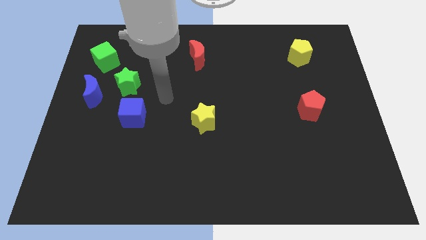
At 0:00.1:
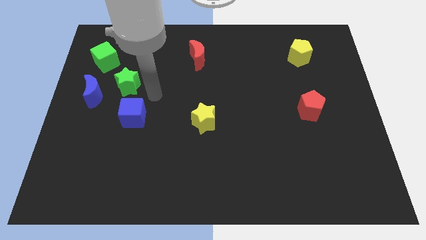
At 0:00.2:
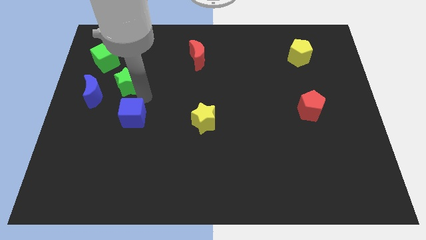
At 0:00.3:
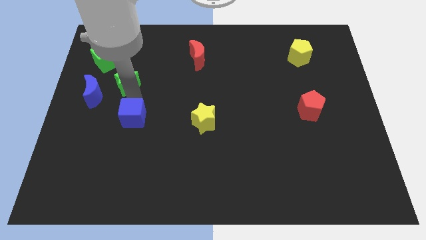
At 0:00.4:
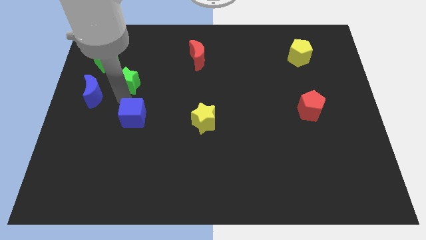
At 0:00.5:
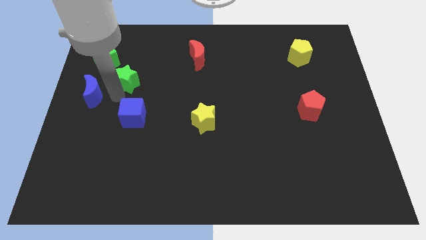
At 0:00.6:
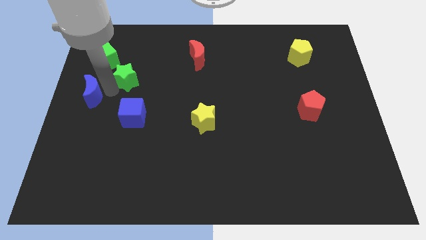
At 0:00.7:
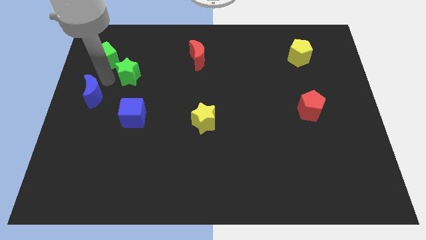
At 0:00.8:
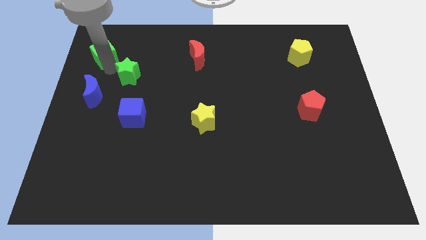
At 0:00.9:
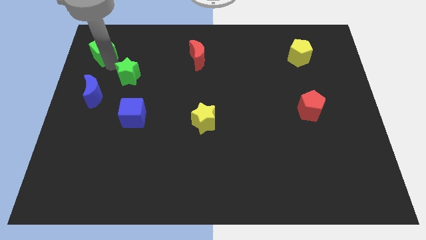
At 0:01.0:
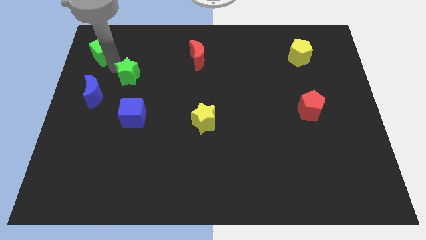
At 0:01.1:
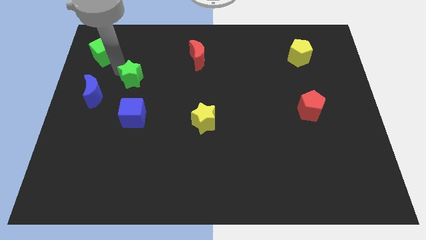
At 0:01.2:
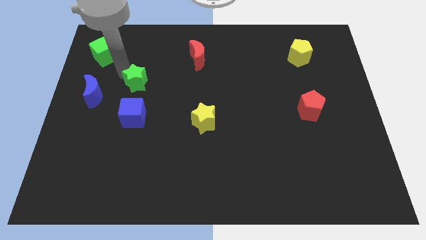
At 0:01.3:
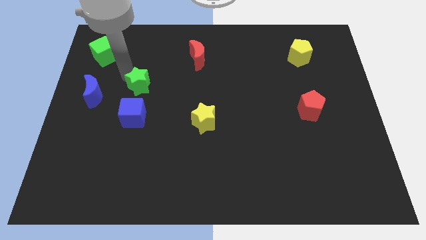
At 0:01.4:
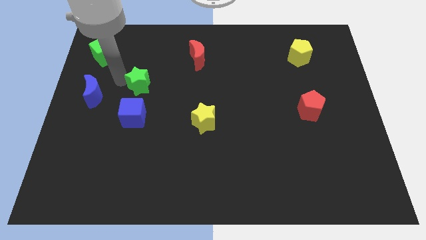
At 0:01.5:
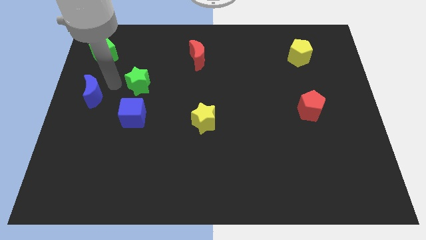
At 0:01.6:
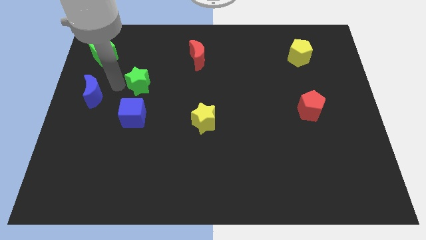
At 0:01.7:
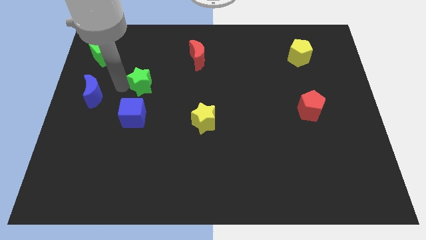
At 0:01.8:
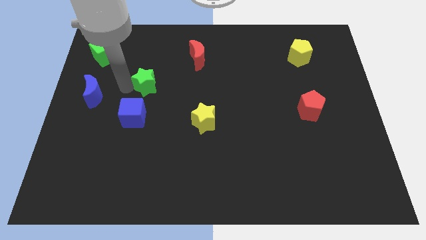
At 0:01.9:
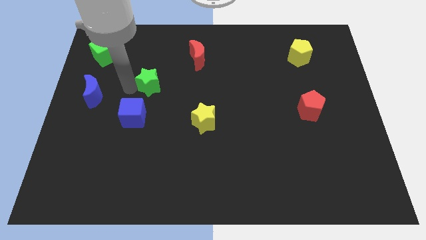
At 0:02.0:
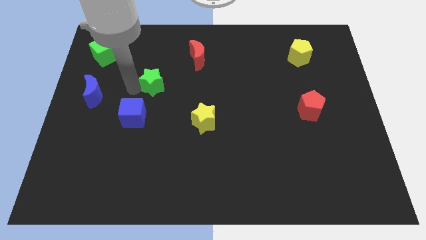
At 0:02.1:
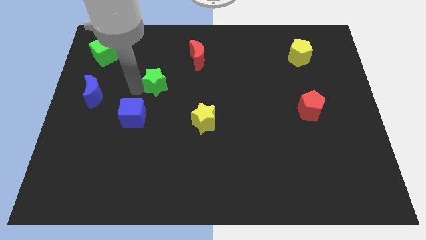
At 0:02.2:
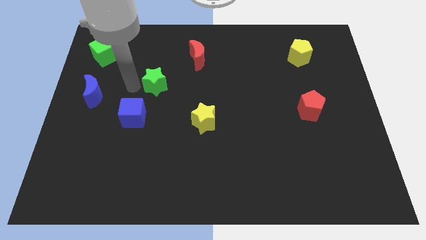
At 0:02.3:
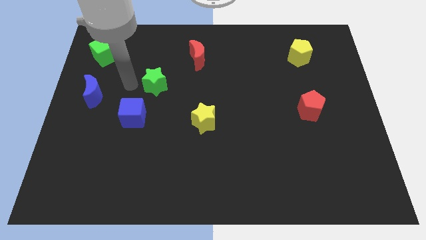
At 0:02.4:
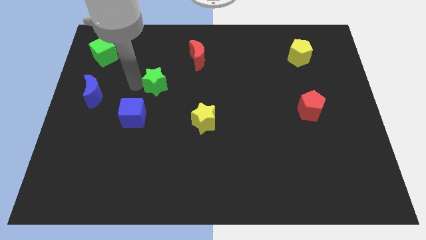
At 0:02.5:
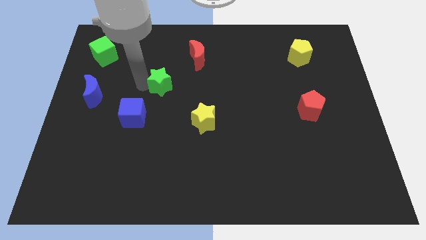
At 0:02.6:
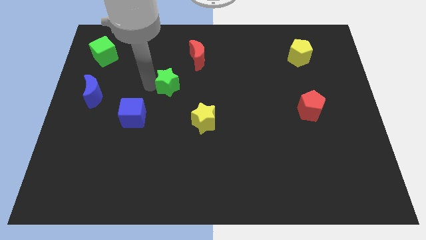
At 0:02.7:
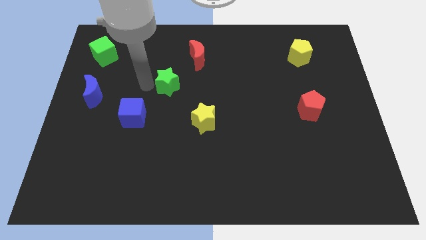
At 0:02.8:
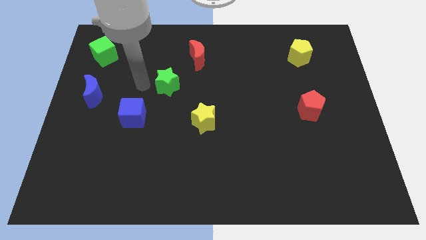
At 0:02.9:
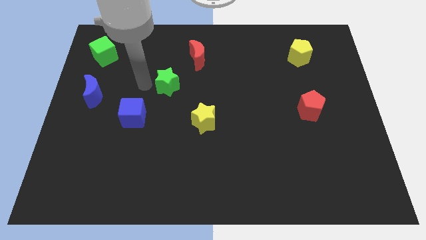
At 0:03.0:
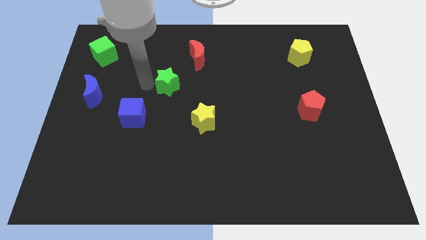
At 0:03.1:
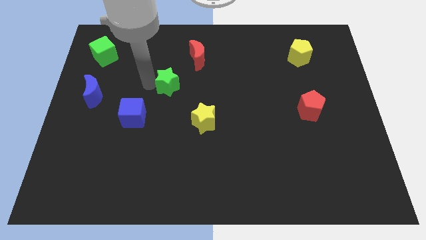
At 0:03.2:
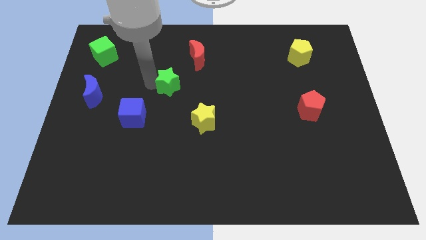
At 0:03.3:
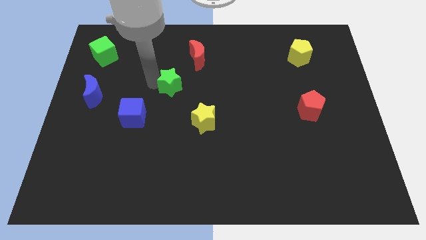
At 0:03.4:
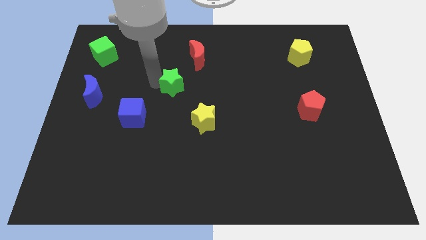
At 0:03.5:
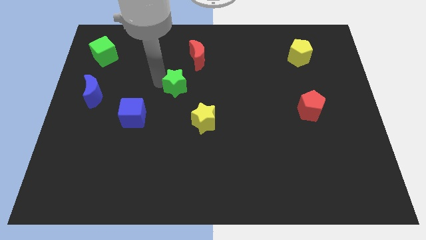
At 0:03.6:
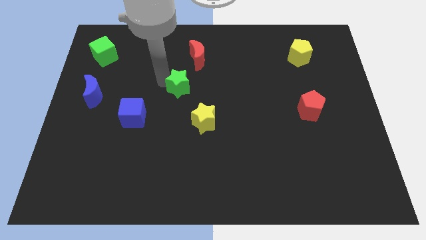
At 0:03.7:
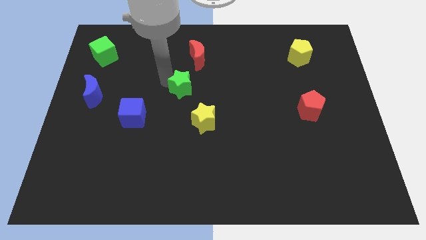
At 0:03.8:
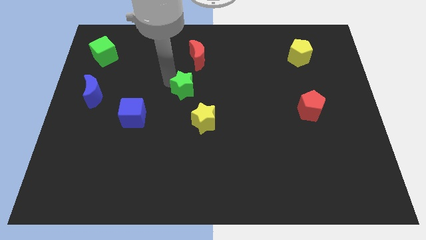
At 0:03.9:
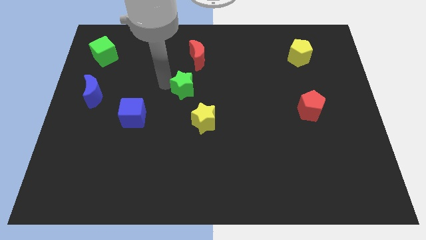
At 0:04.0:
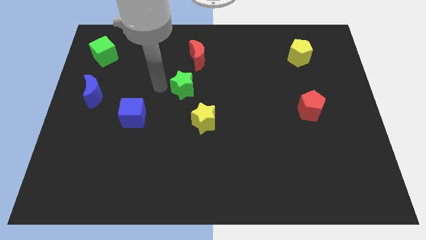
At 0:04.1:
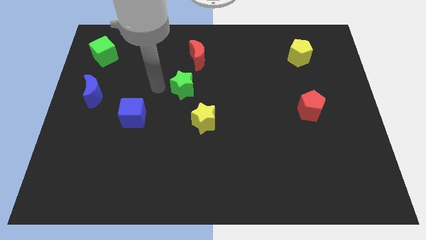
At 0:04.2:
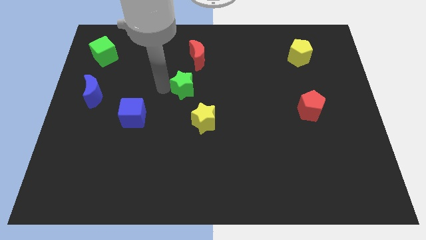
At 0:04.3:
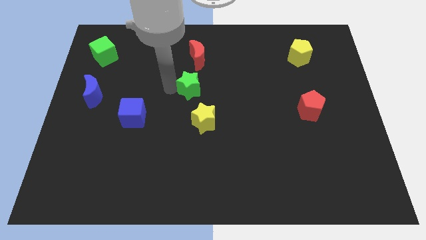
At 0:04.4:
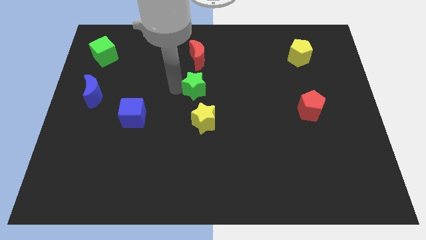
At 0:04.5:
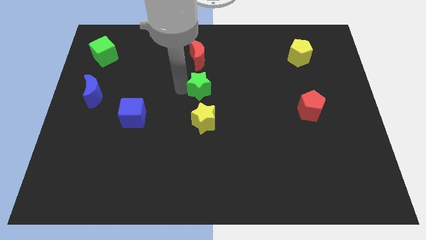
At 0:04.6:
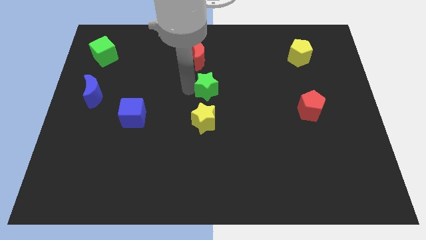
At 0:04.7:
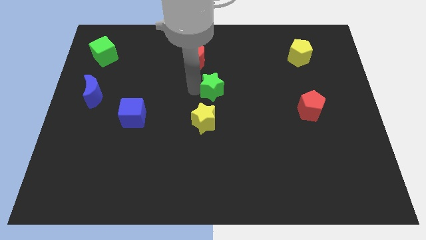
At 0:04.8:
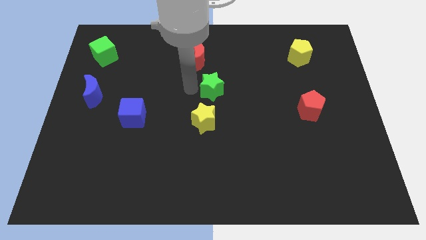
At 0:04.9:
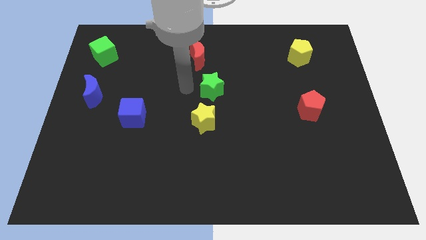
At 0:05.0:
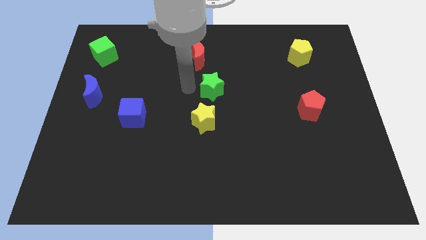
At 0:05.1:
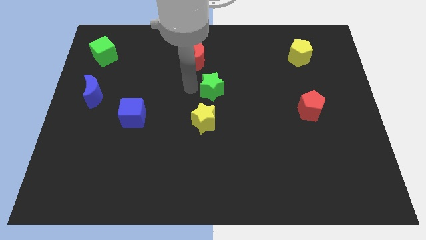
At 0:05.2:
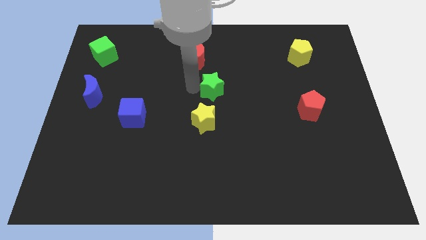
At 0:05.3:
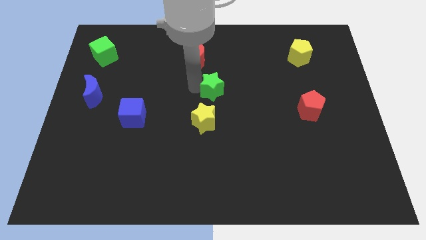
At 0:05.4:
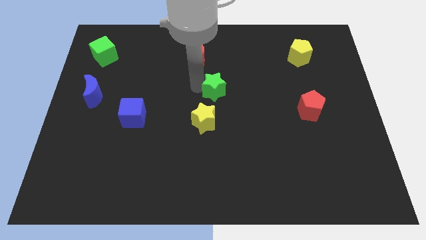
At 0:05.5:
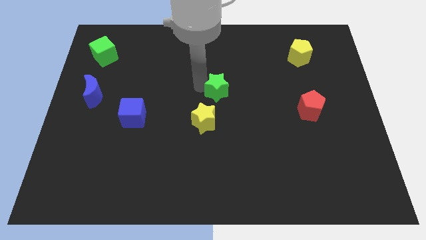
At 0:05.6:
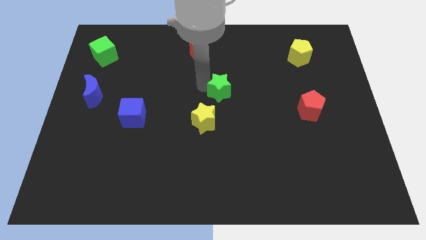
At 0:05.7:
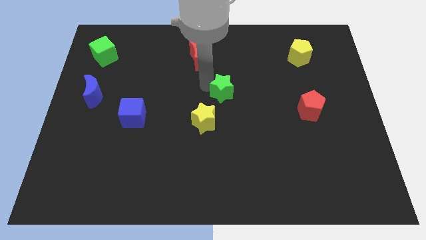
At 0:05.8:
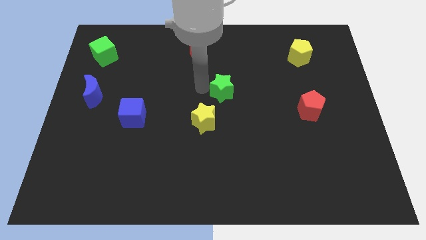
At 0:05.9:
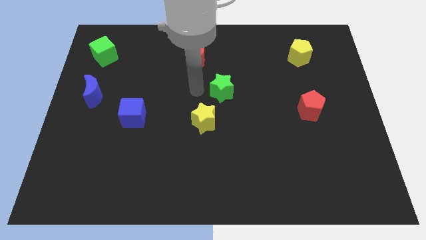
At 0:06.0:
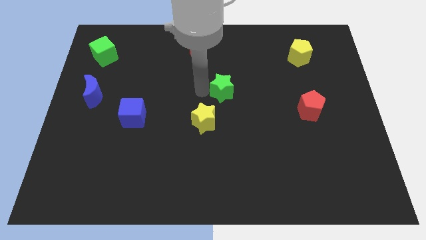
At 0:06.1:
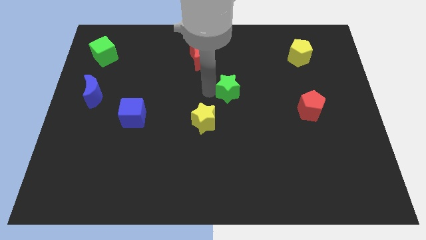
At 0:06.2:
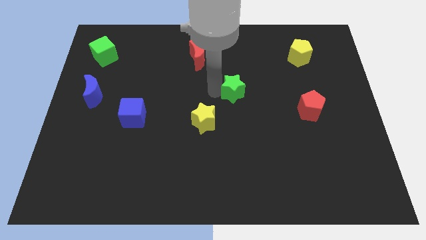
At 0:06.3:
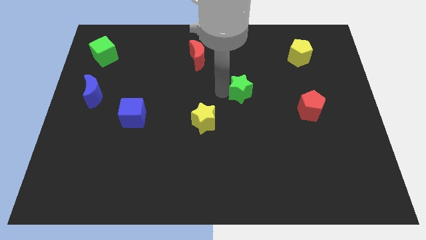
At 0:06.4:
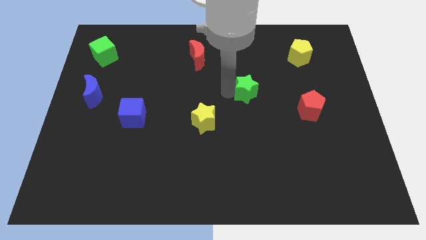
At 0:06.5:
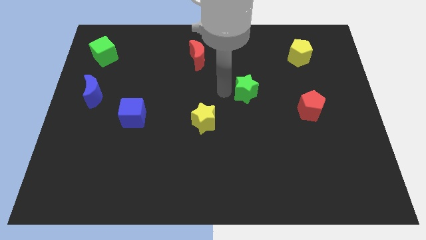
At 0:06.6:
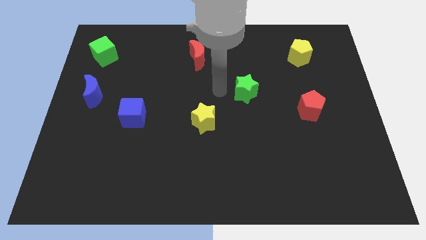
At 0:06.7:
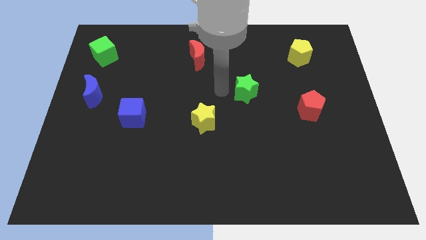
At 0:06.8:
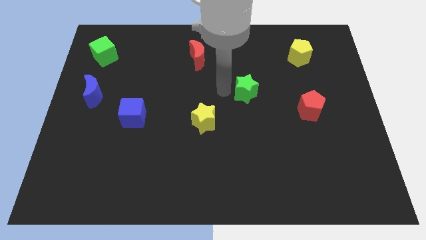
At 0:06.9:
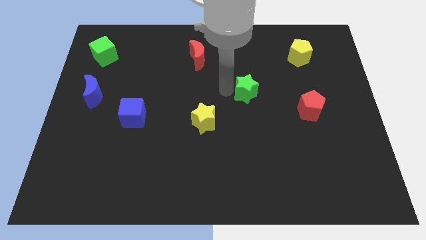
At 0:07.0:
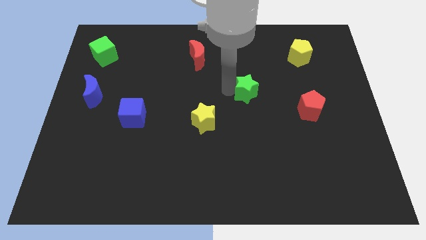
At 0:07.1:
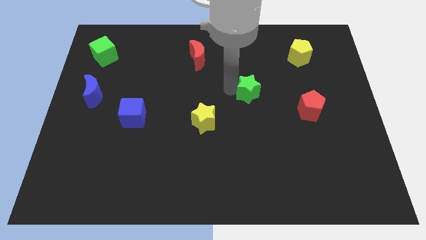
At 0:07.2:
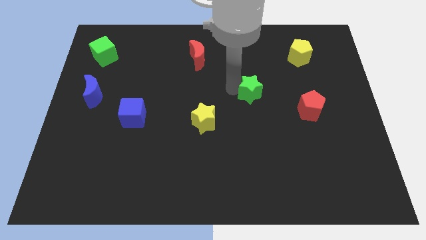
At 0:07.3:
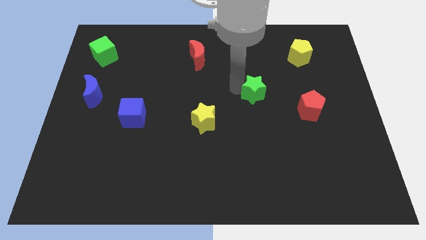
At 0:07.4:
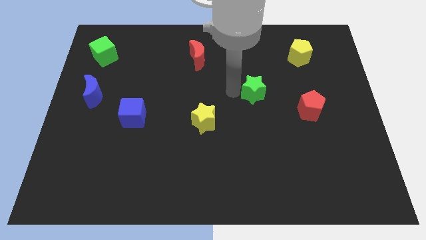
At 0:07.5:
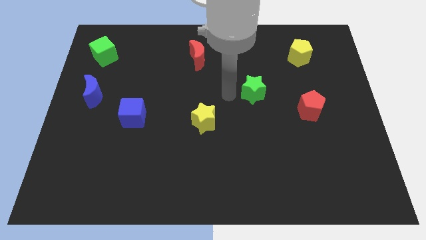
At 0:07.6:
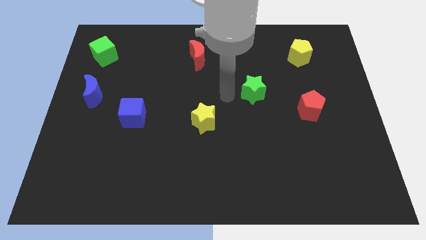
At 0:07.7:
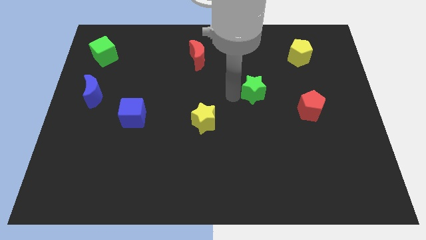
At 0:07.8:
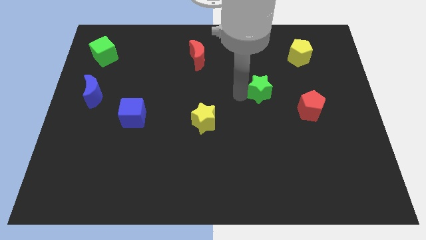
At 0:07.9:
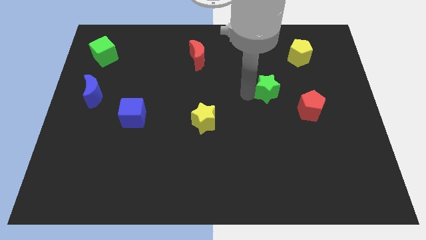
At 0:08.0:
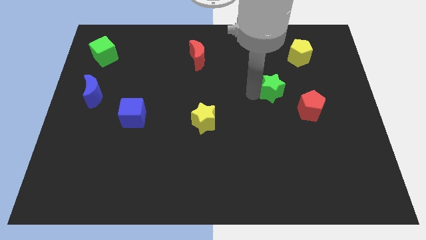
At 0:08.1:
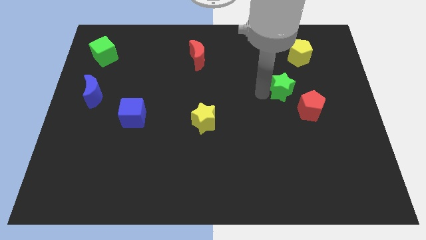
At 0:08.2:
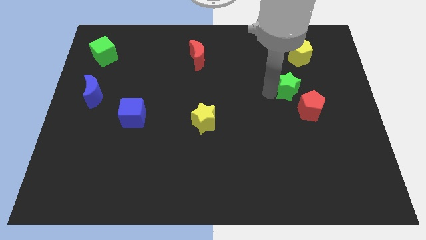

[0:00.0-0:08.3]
slide the green star to the bottom side of the yellow pentagon
